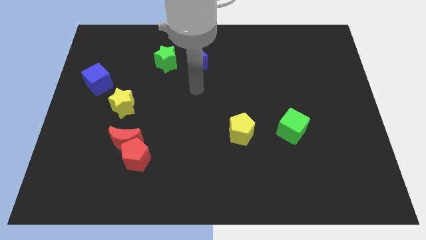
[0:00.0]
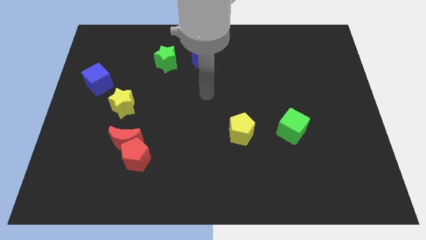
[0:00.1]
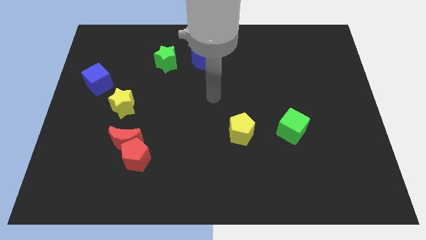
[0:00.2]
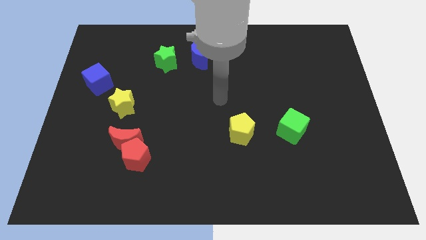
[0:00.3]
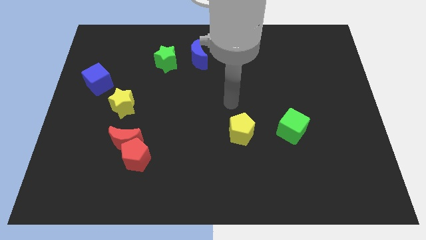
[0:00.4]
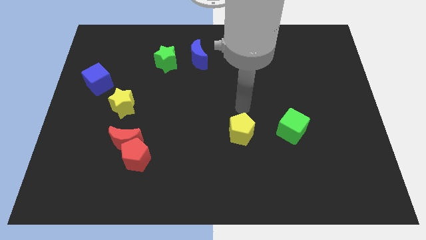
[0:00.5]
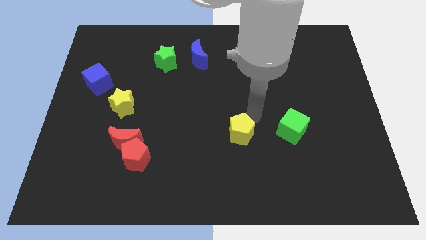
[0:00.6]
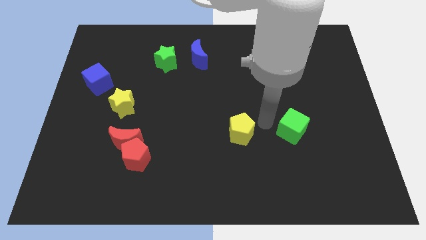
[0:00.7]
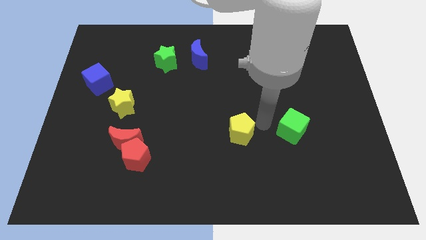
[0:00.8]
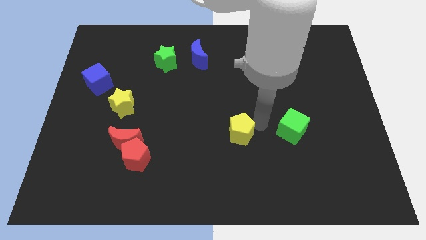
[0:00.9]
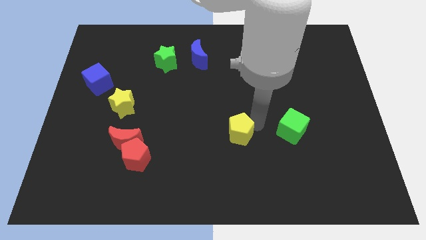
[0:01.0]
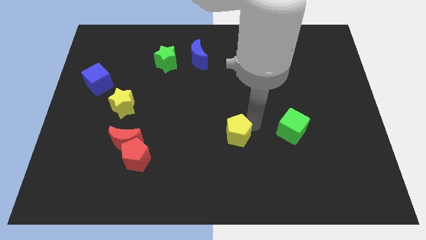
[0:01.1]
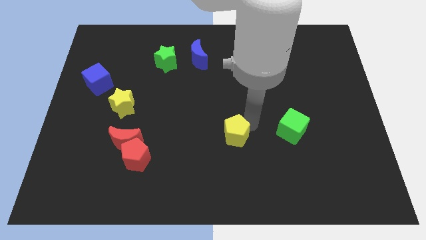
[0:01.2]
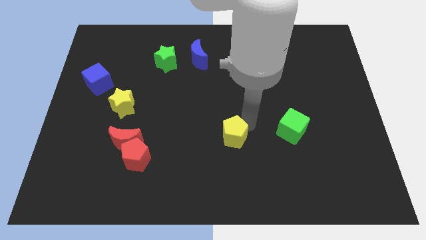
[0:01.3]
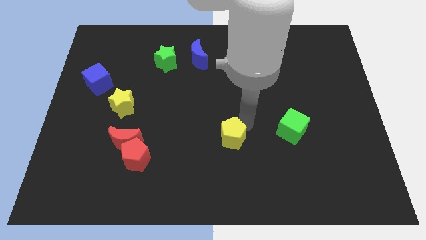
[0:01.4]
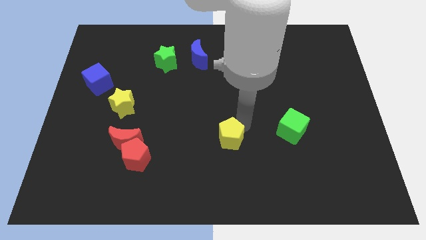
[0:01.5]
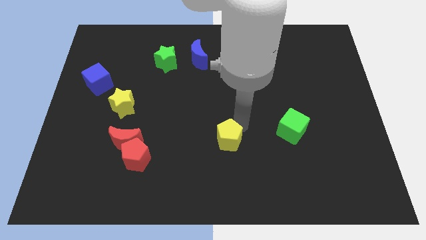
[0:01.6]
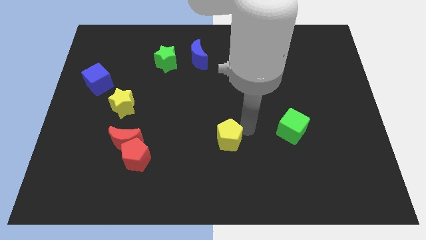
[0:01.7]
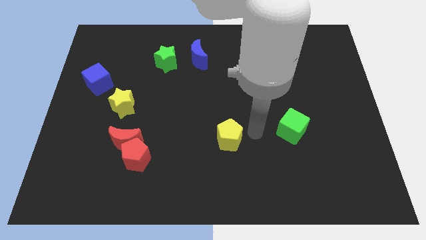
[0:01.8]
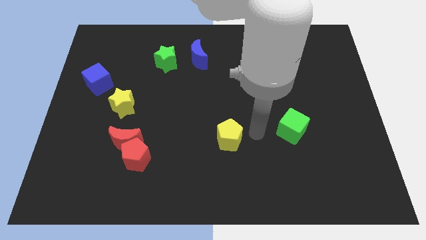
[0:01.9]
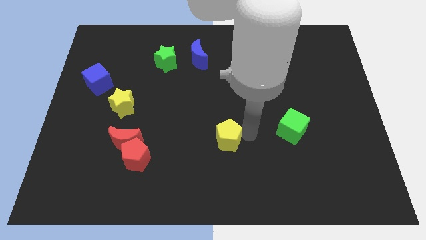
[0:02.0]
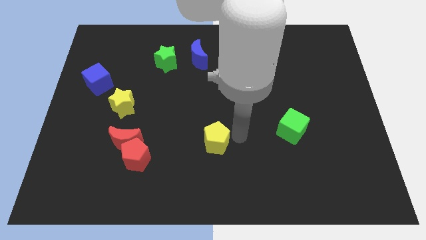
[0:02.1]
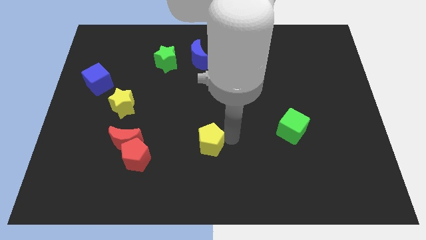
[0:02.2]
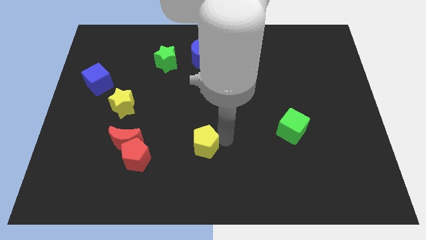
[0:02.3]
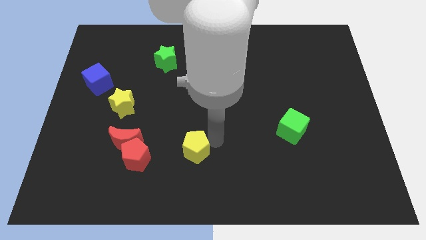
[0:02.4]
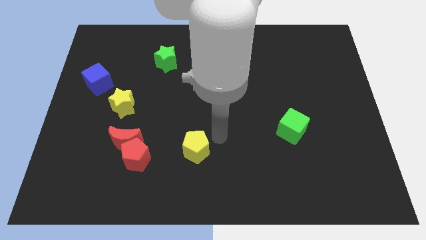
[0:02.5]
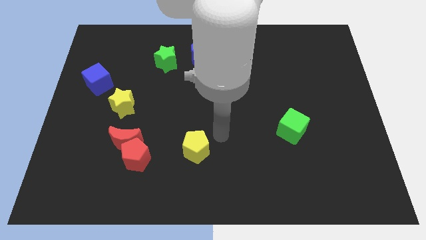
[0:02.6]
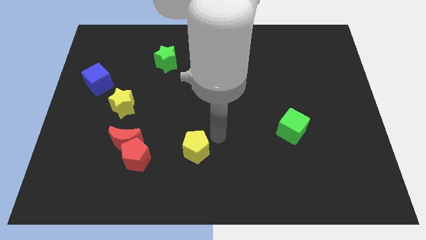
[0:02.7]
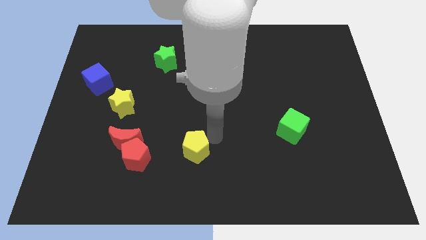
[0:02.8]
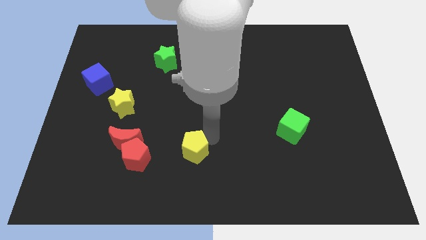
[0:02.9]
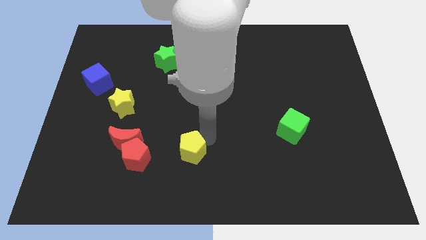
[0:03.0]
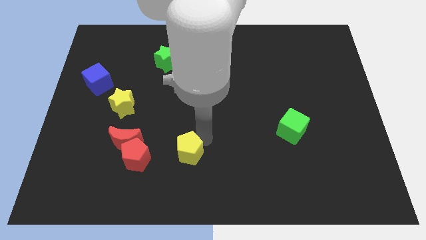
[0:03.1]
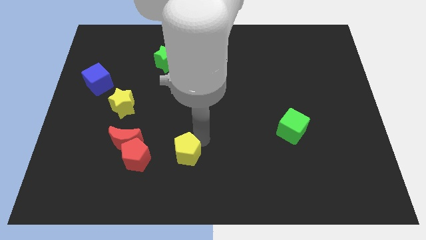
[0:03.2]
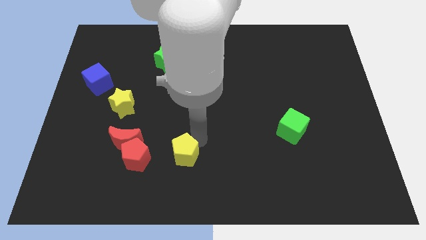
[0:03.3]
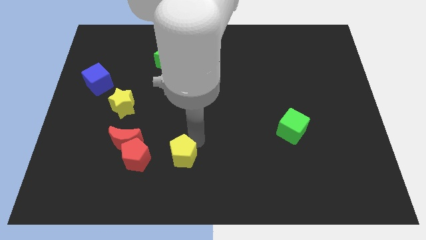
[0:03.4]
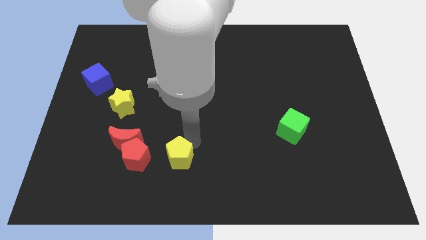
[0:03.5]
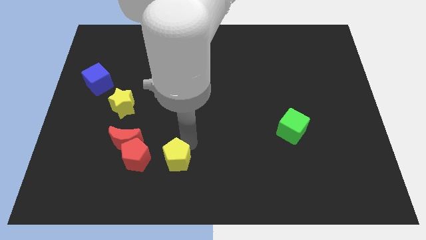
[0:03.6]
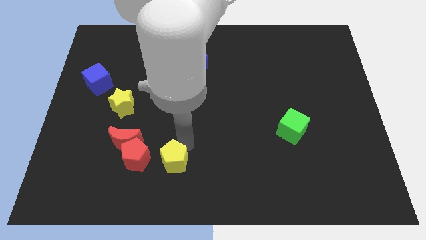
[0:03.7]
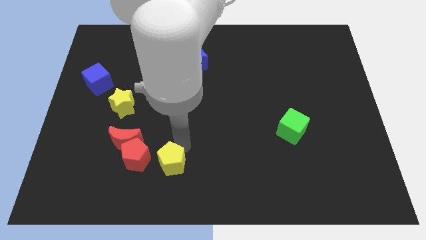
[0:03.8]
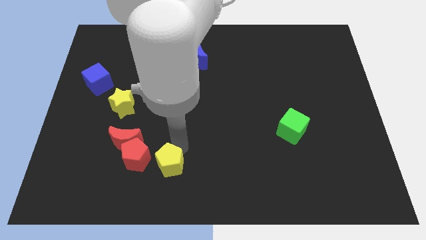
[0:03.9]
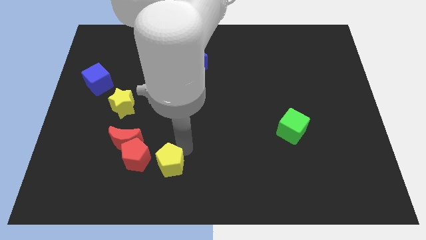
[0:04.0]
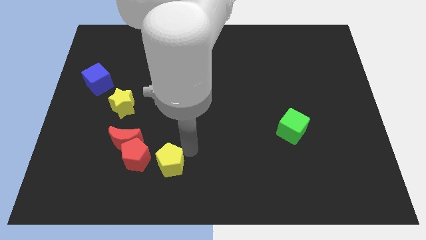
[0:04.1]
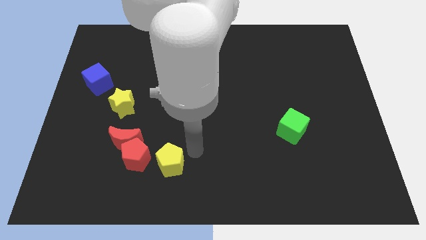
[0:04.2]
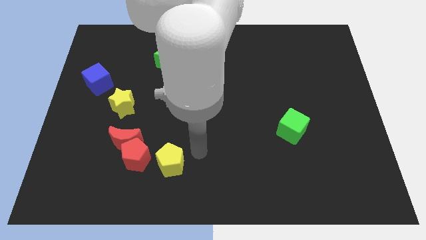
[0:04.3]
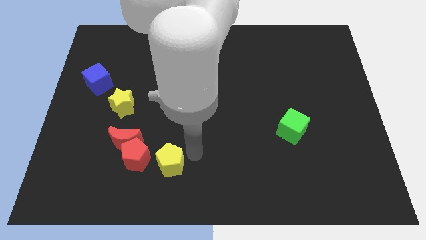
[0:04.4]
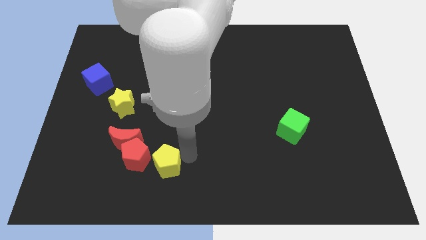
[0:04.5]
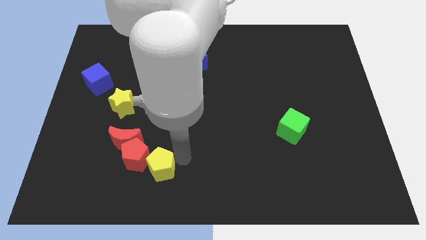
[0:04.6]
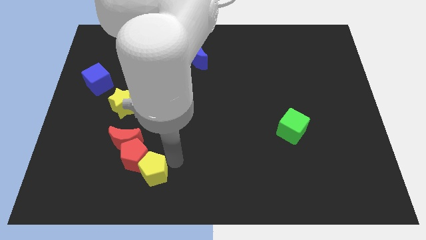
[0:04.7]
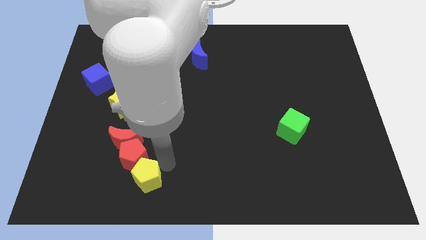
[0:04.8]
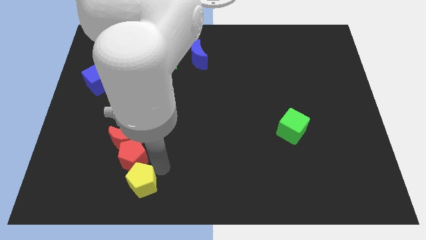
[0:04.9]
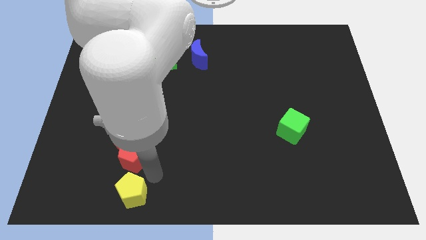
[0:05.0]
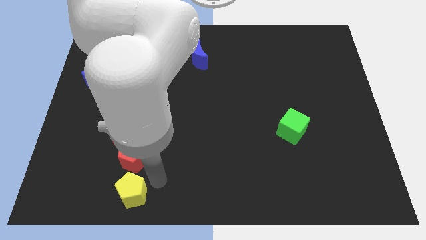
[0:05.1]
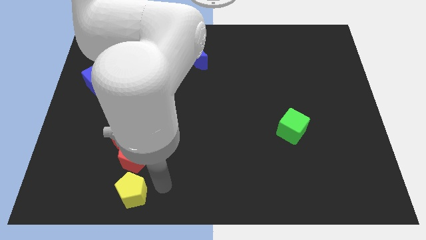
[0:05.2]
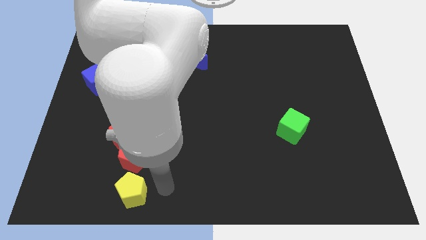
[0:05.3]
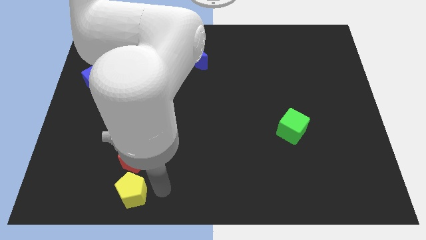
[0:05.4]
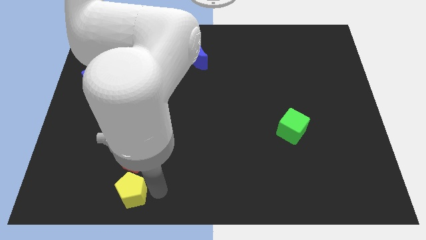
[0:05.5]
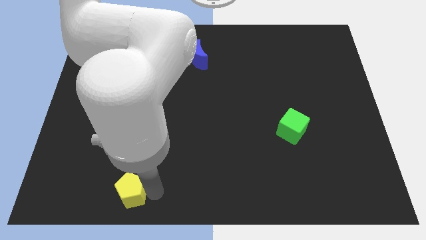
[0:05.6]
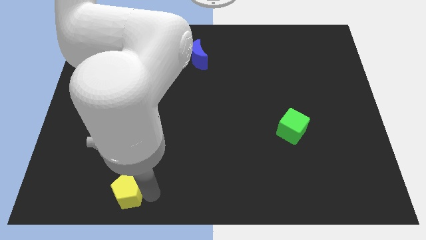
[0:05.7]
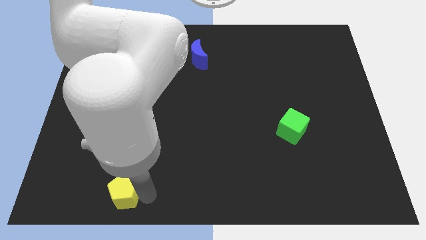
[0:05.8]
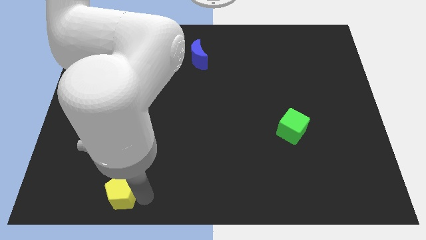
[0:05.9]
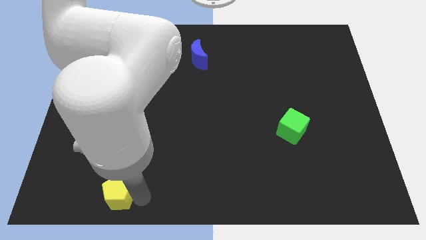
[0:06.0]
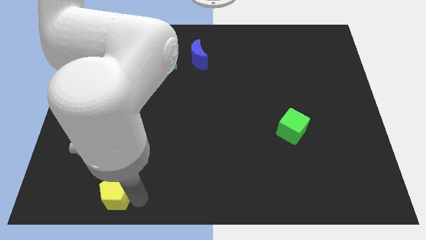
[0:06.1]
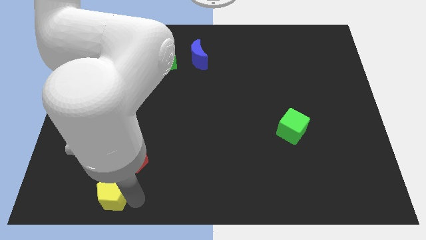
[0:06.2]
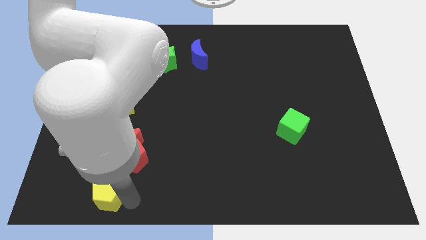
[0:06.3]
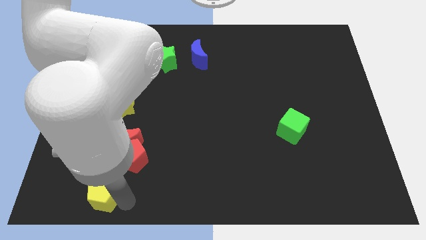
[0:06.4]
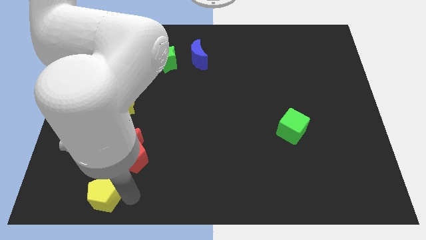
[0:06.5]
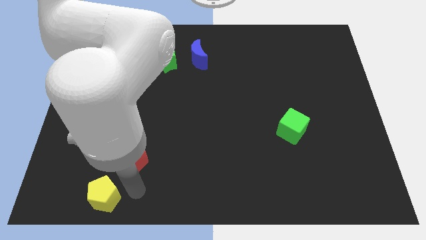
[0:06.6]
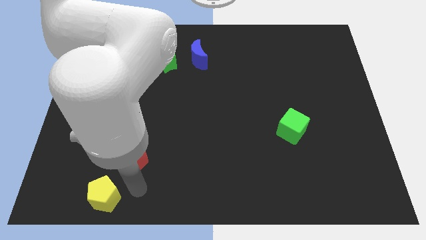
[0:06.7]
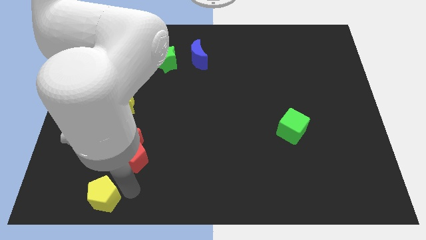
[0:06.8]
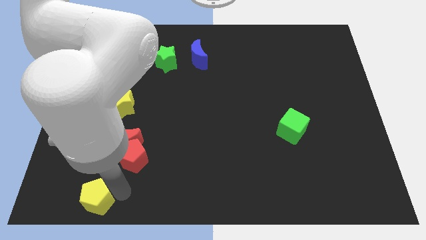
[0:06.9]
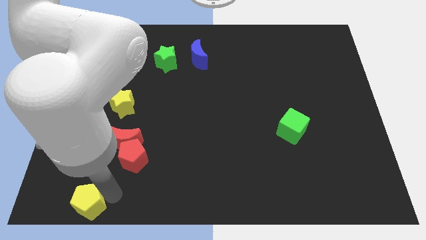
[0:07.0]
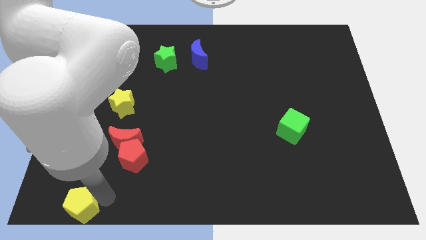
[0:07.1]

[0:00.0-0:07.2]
push the yellow pentagon to the bottom left
